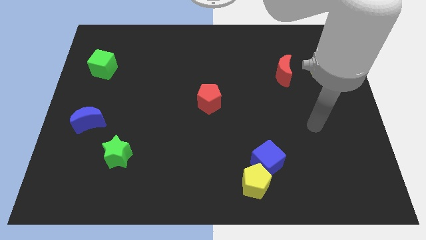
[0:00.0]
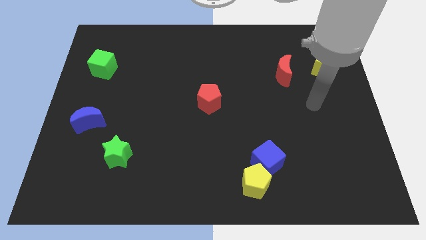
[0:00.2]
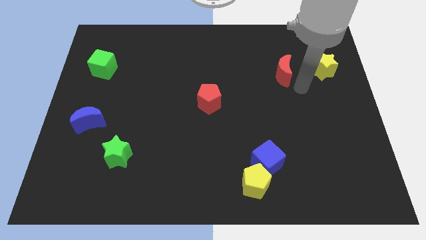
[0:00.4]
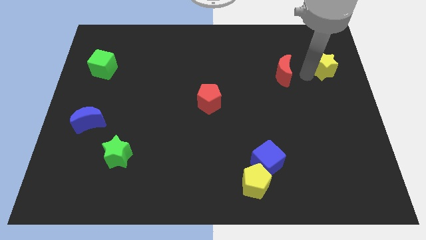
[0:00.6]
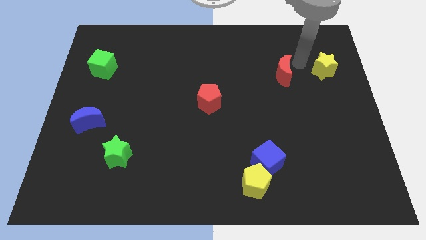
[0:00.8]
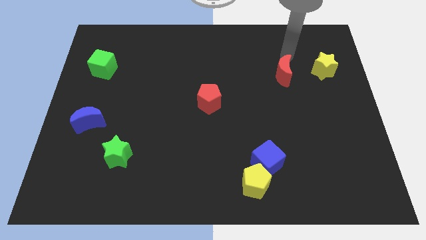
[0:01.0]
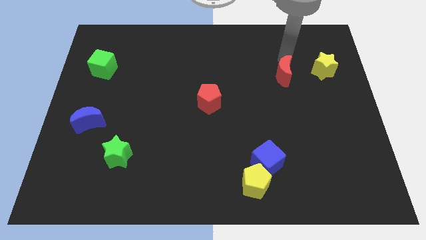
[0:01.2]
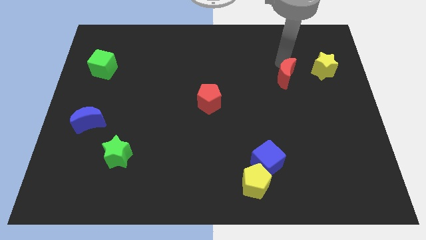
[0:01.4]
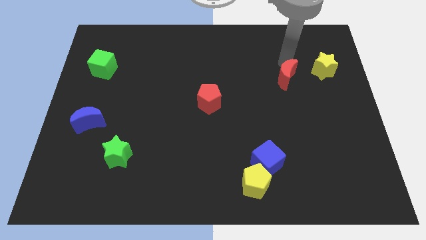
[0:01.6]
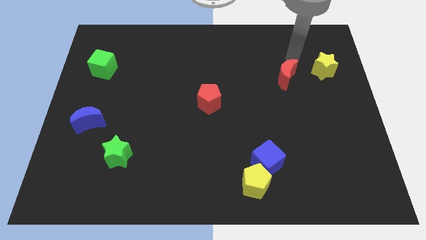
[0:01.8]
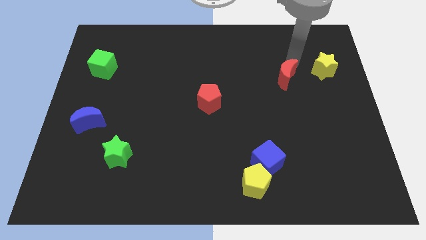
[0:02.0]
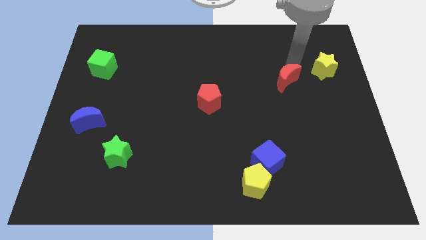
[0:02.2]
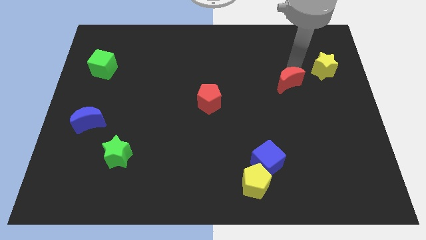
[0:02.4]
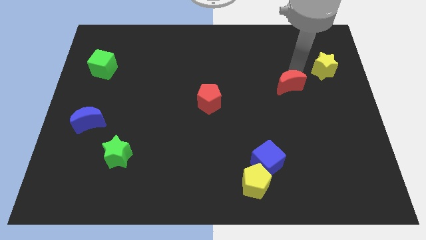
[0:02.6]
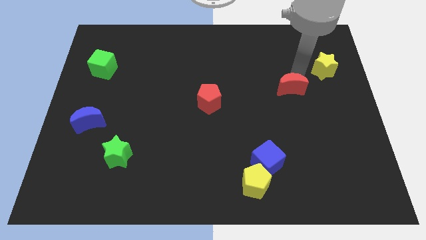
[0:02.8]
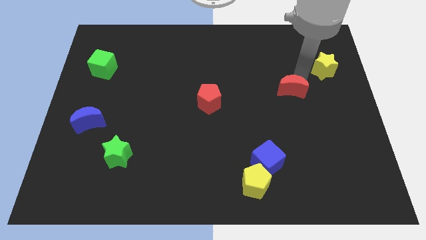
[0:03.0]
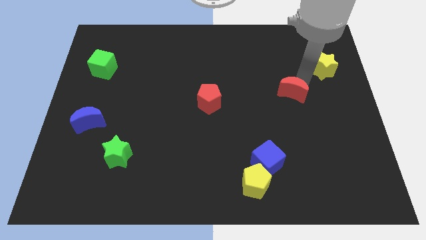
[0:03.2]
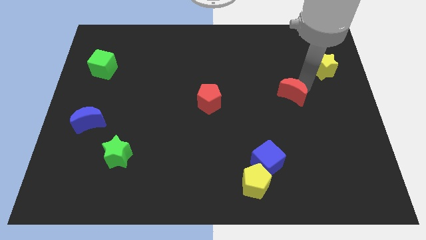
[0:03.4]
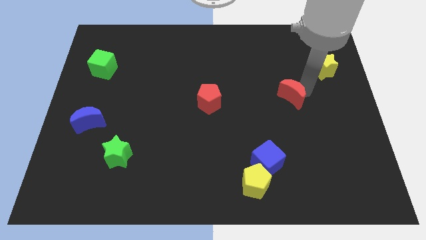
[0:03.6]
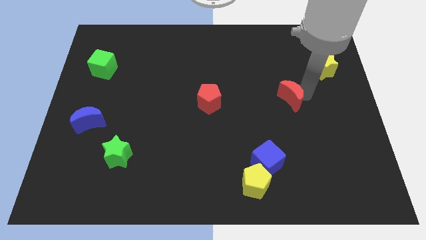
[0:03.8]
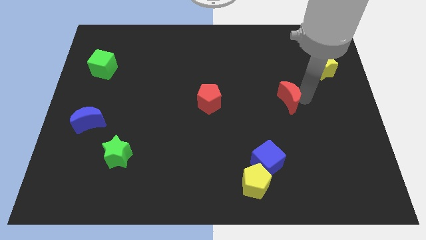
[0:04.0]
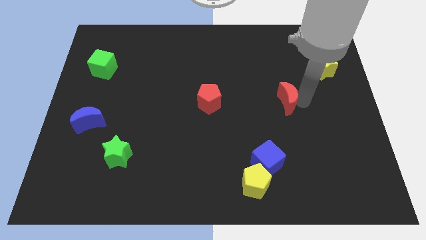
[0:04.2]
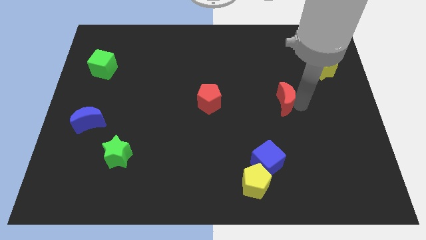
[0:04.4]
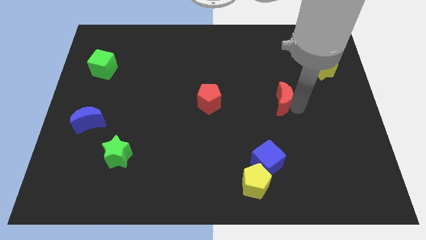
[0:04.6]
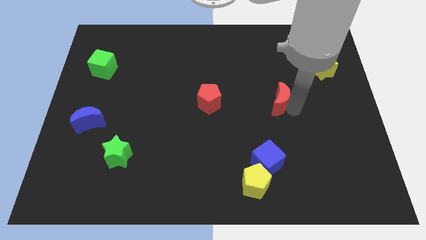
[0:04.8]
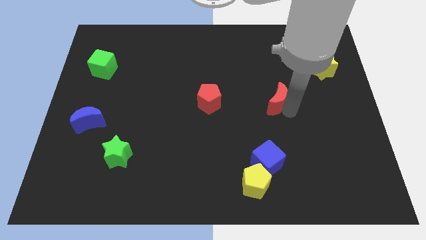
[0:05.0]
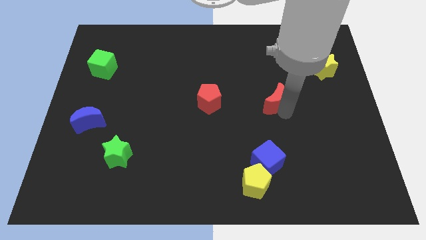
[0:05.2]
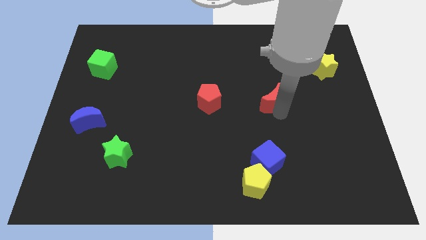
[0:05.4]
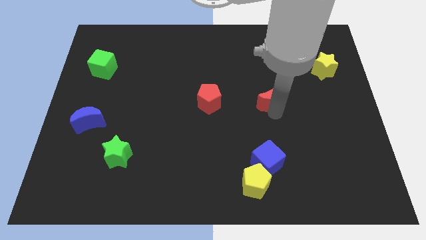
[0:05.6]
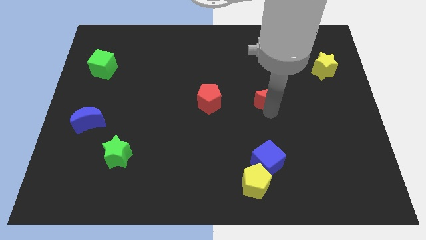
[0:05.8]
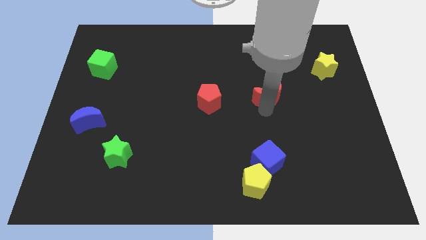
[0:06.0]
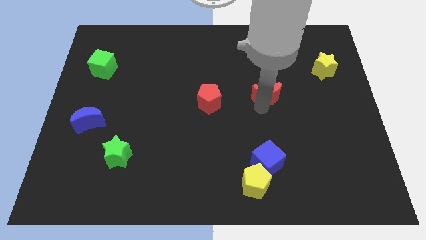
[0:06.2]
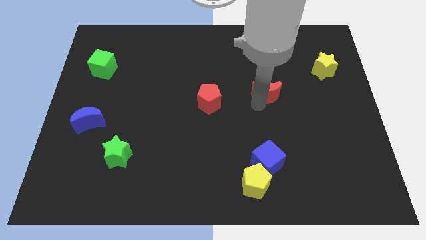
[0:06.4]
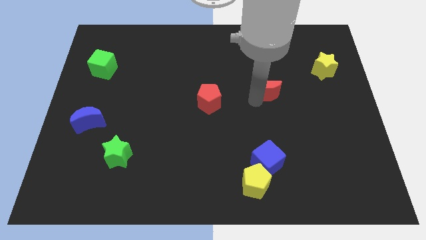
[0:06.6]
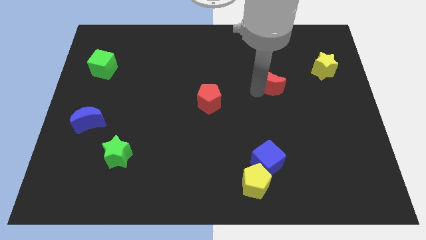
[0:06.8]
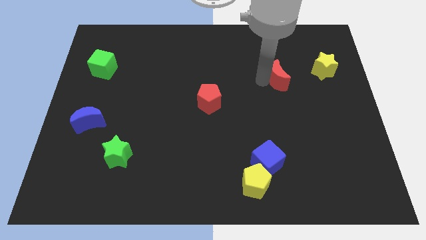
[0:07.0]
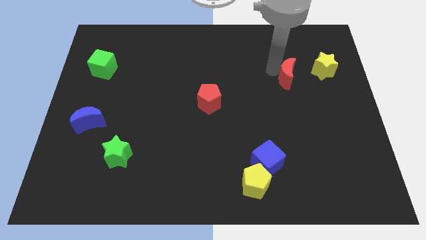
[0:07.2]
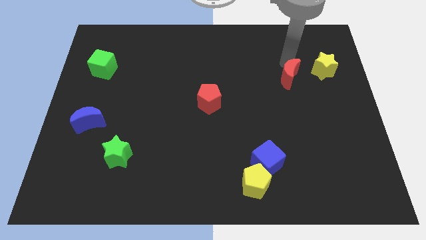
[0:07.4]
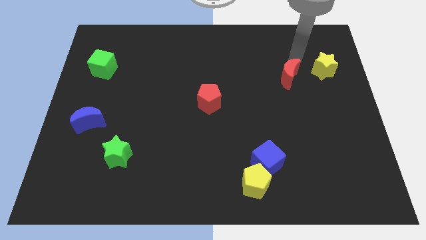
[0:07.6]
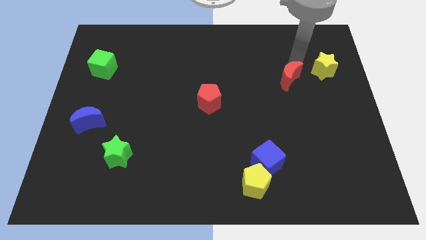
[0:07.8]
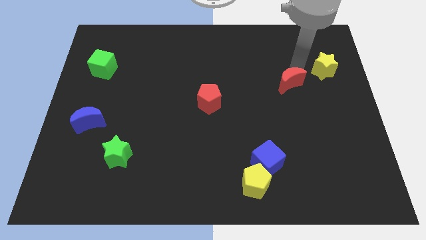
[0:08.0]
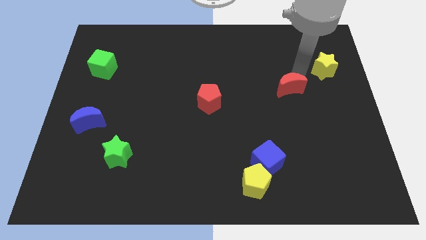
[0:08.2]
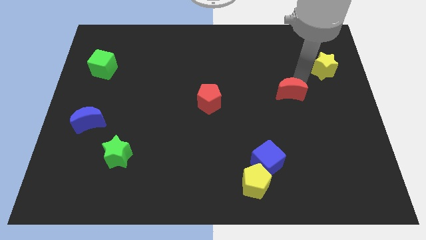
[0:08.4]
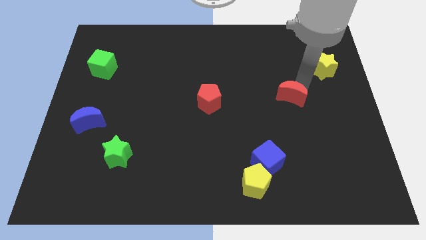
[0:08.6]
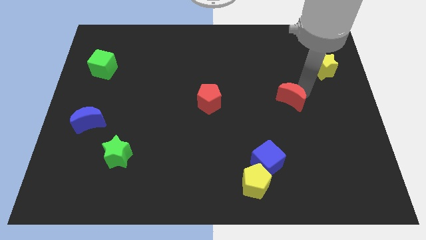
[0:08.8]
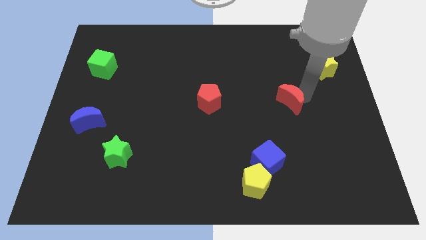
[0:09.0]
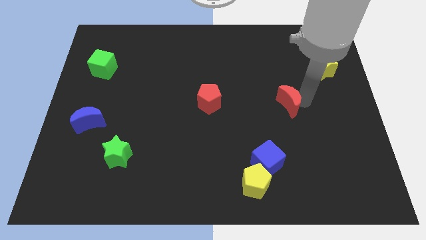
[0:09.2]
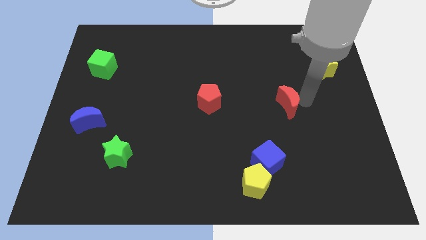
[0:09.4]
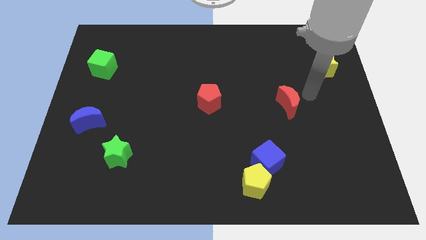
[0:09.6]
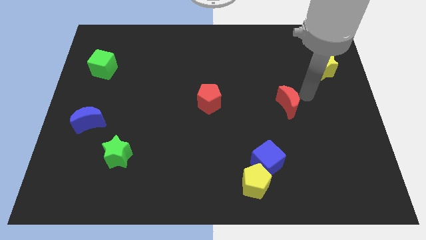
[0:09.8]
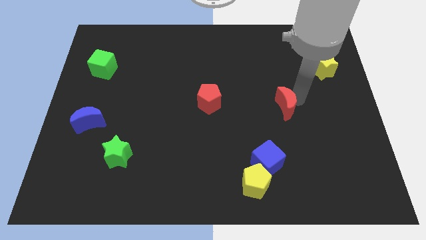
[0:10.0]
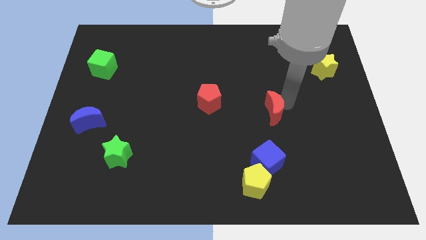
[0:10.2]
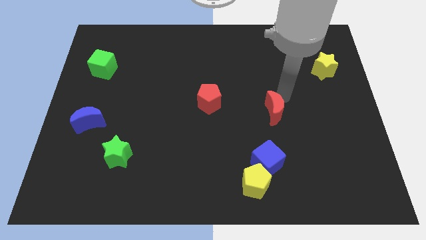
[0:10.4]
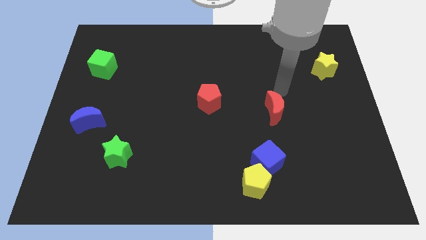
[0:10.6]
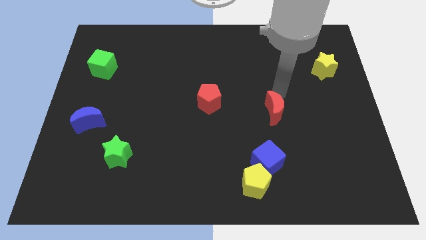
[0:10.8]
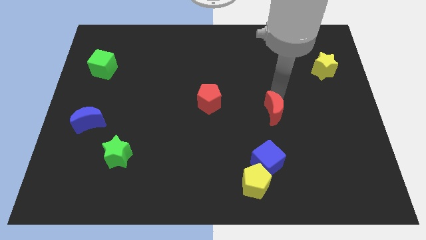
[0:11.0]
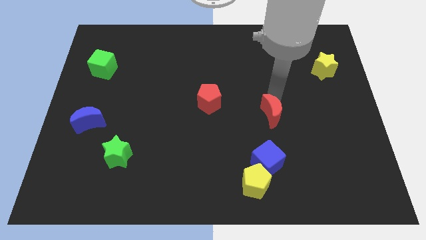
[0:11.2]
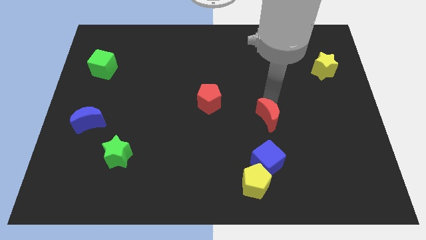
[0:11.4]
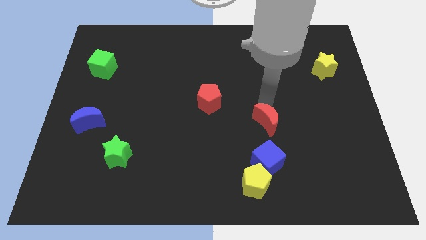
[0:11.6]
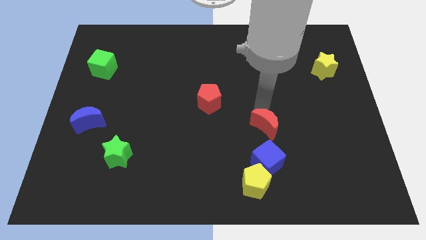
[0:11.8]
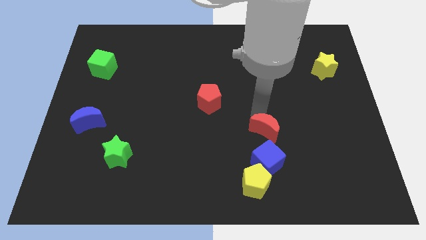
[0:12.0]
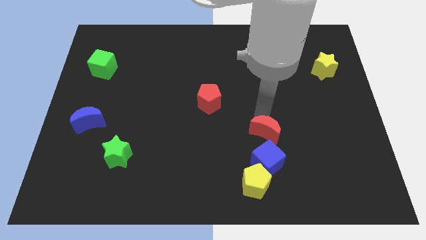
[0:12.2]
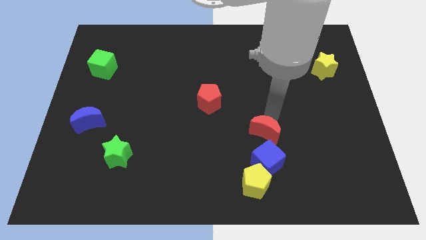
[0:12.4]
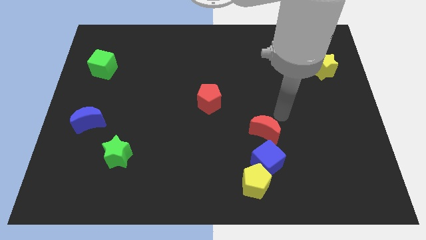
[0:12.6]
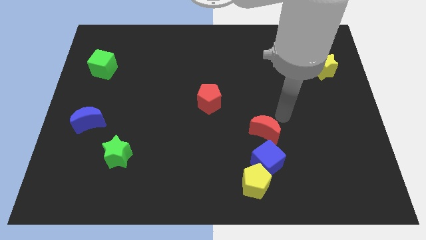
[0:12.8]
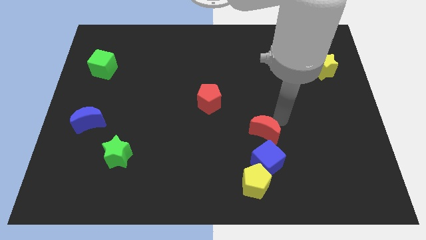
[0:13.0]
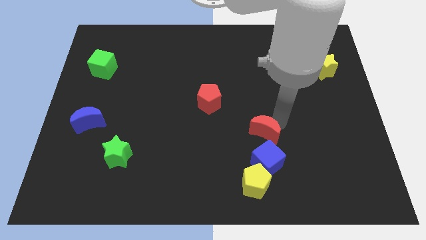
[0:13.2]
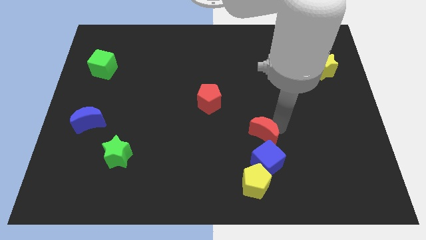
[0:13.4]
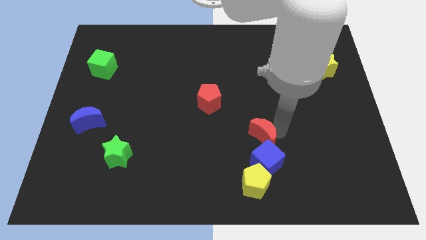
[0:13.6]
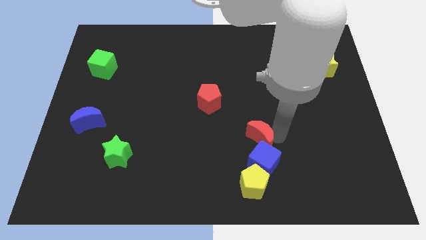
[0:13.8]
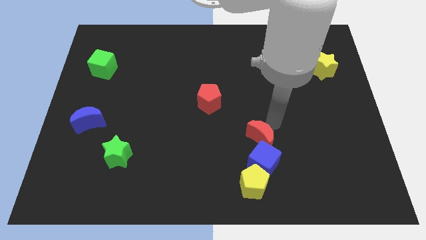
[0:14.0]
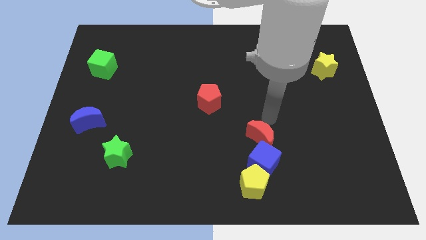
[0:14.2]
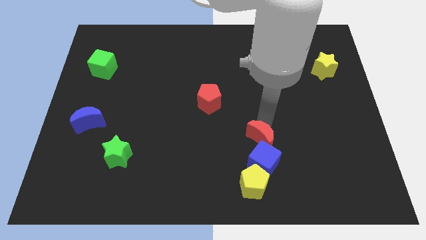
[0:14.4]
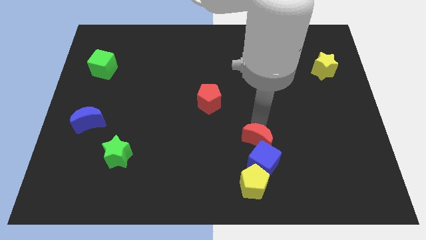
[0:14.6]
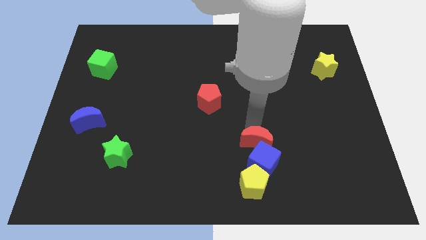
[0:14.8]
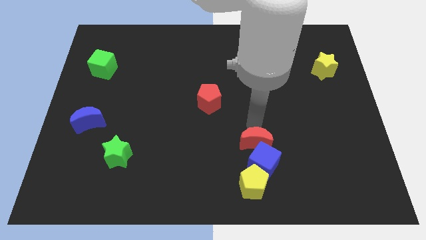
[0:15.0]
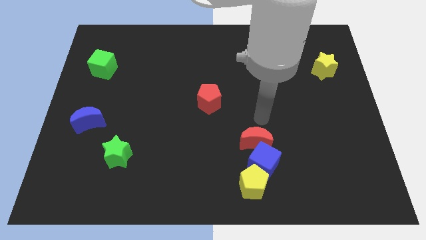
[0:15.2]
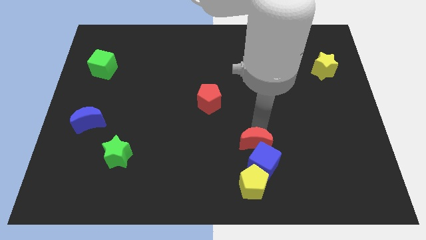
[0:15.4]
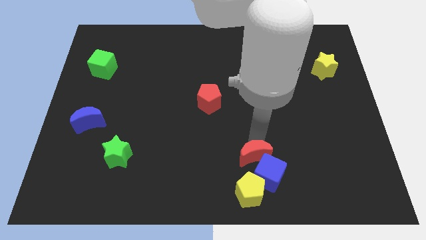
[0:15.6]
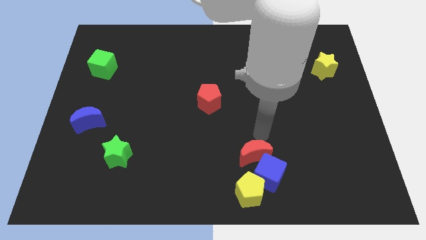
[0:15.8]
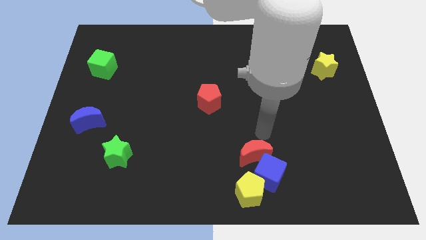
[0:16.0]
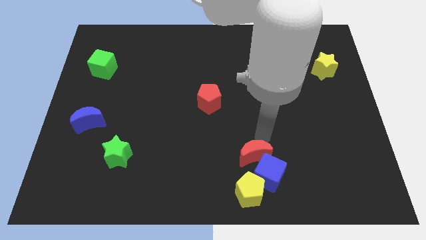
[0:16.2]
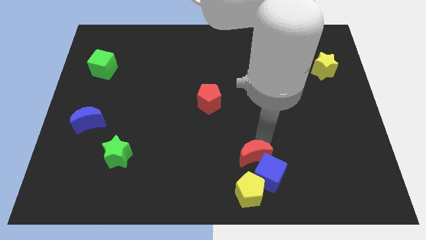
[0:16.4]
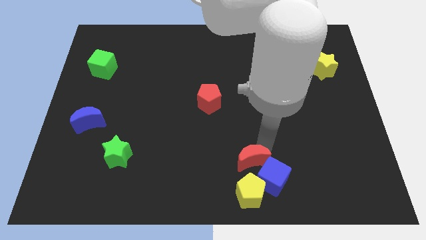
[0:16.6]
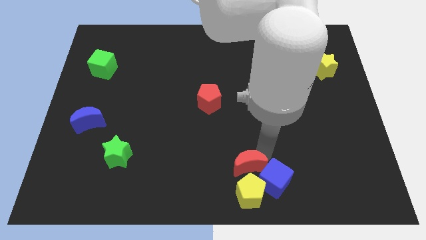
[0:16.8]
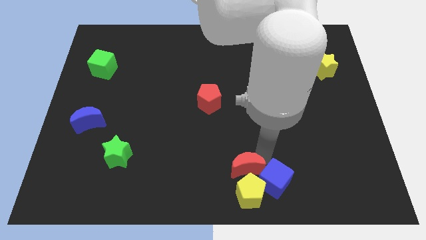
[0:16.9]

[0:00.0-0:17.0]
move the red moon next to the yellow pentagon
